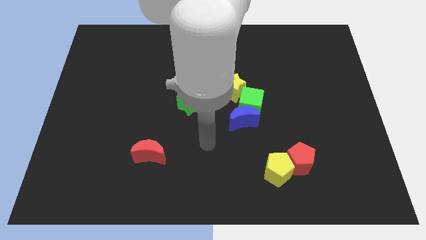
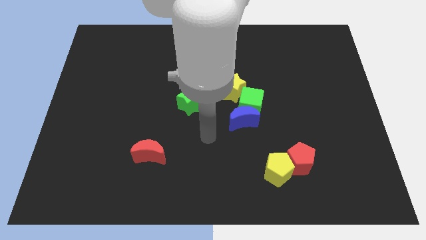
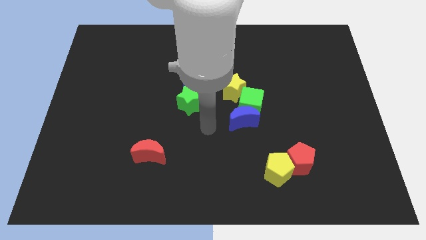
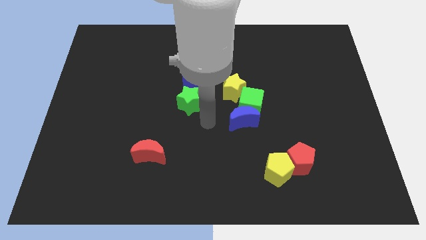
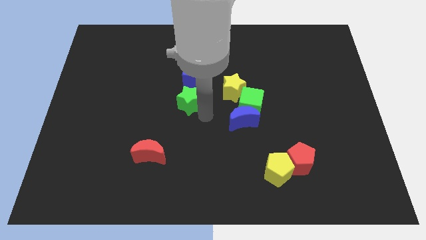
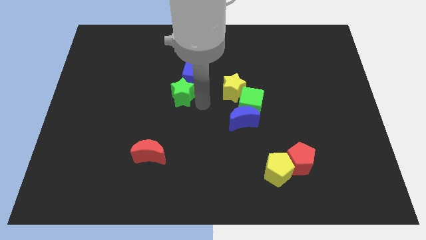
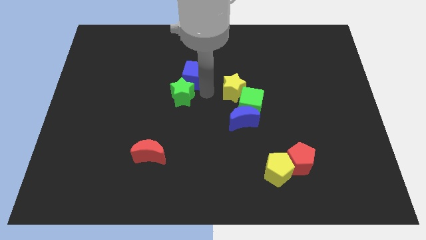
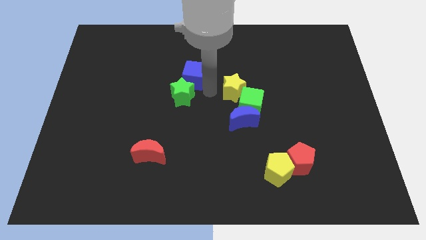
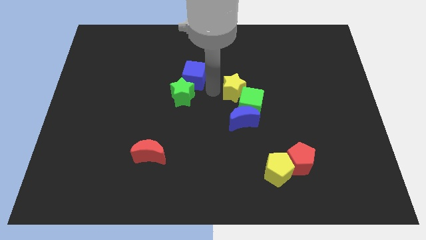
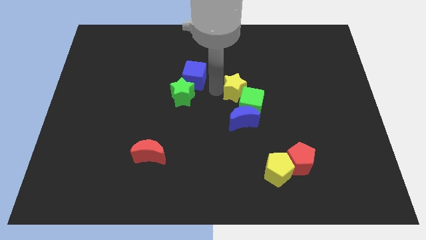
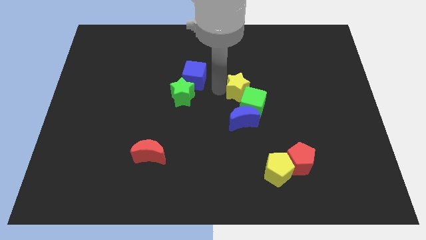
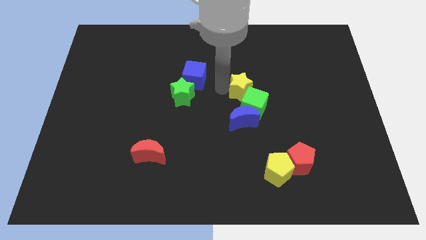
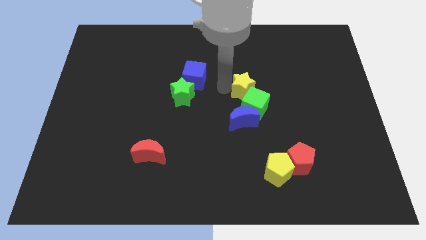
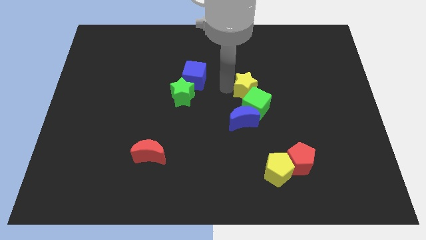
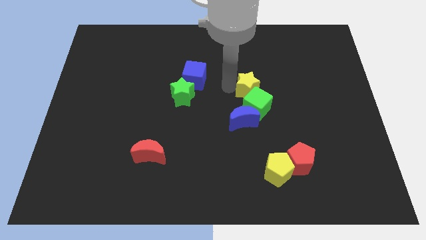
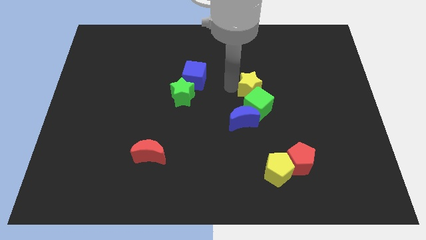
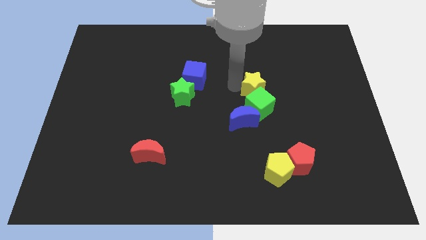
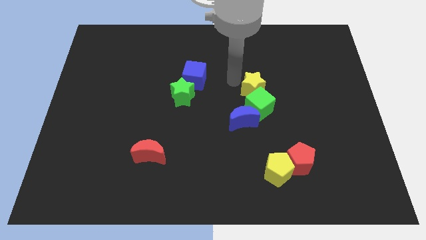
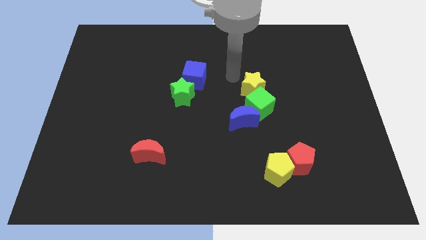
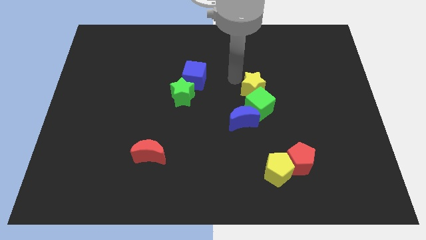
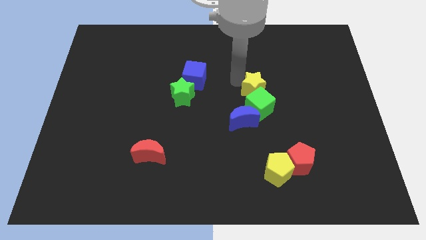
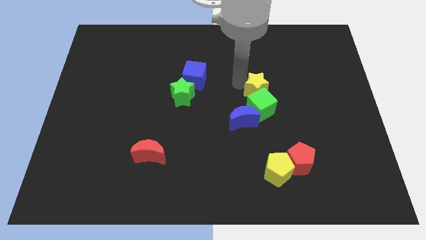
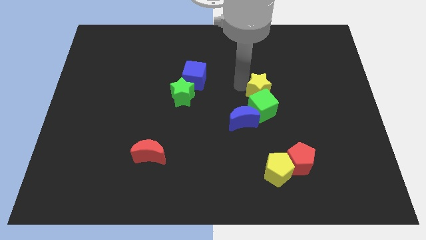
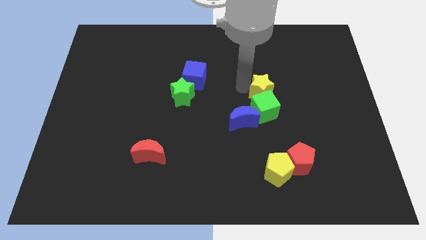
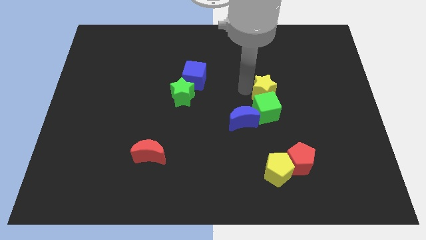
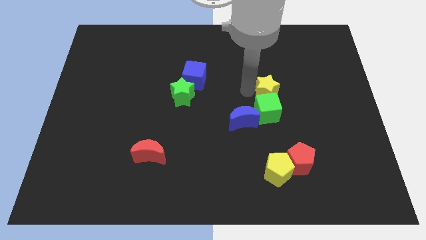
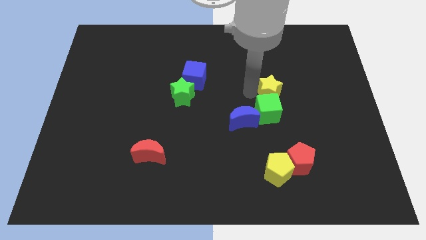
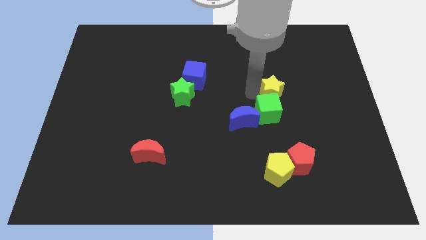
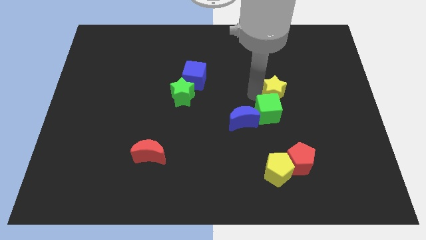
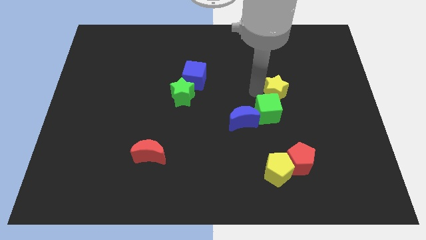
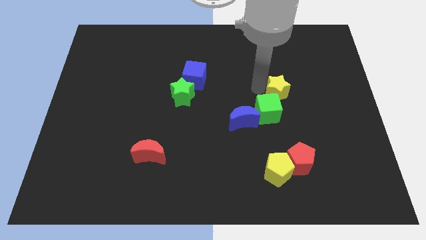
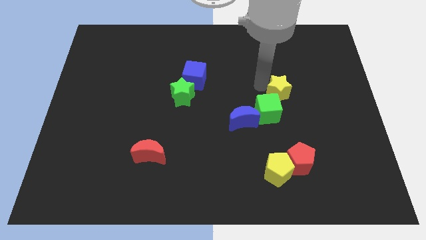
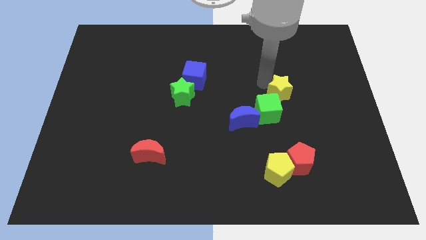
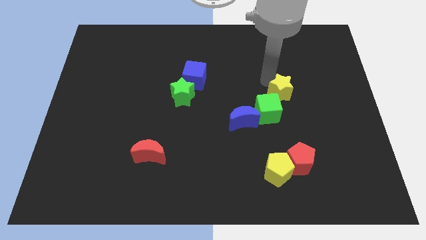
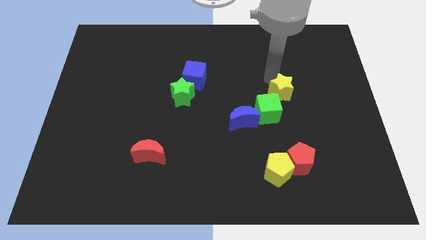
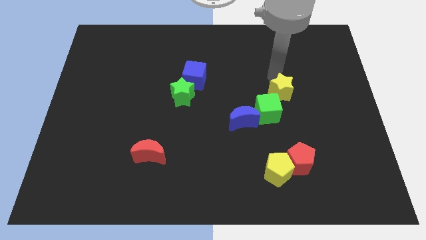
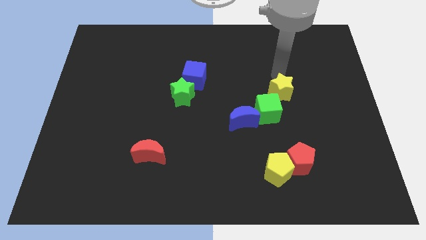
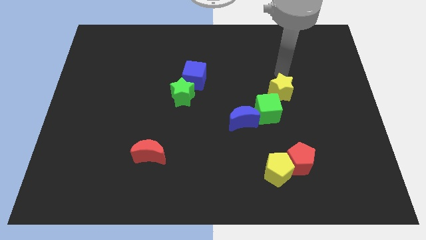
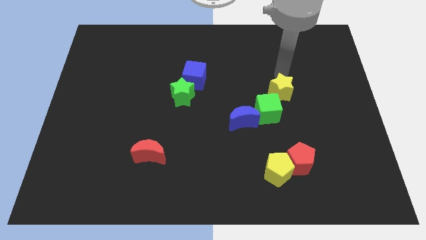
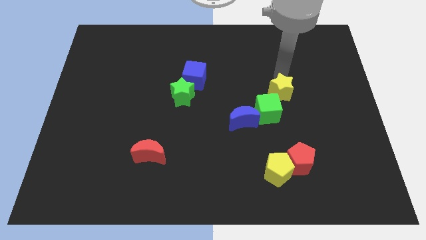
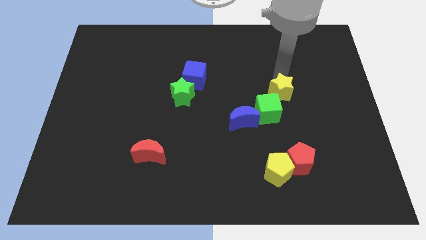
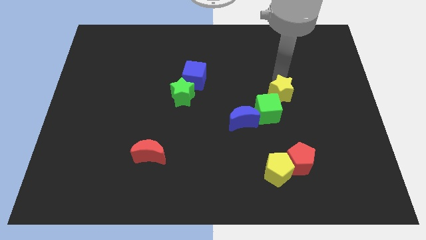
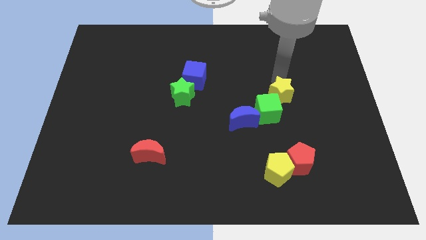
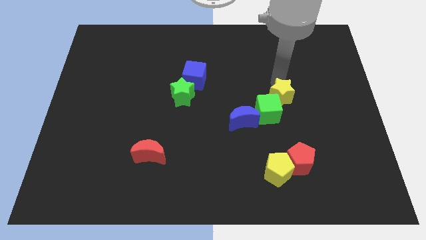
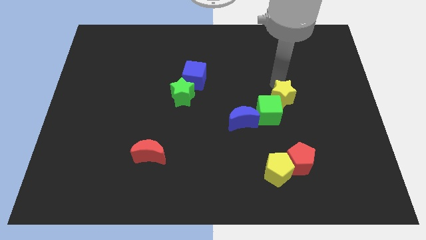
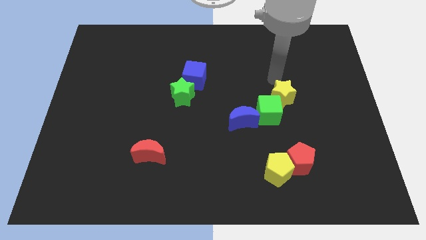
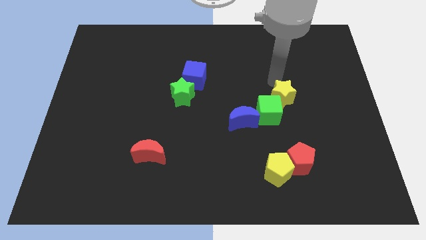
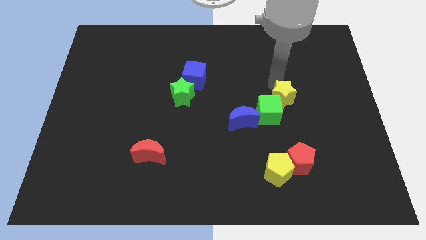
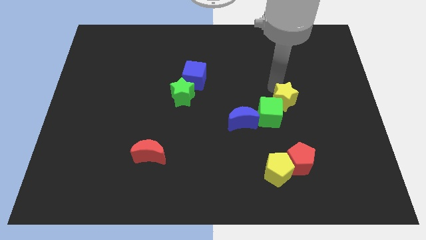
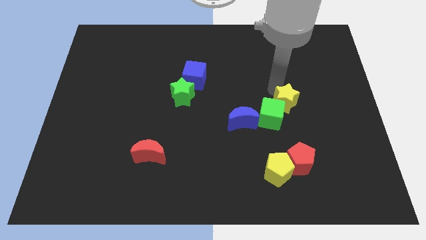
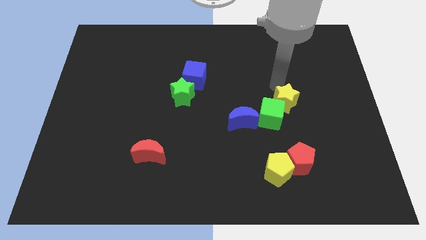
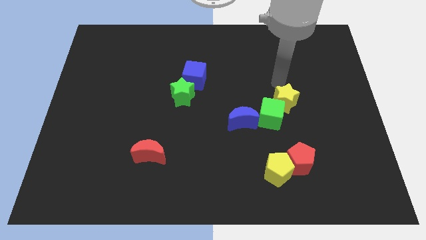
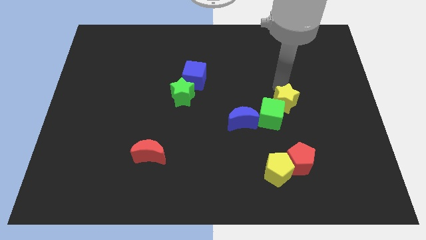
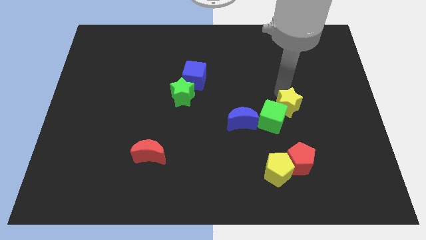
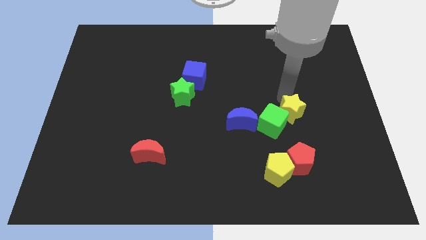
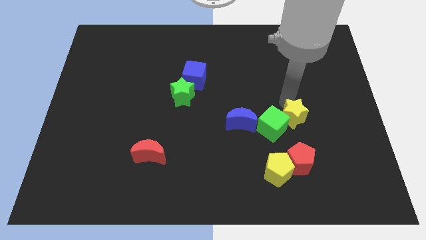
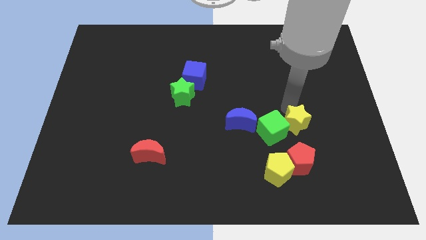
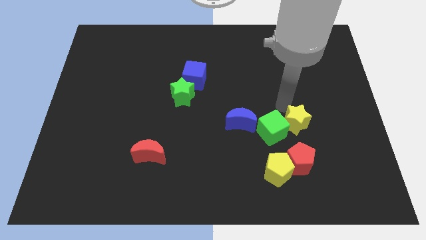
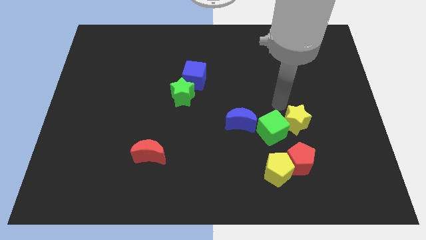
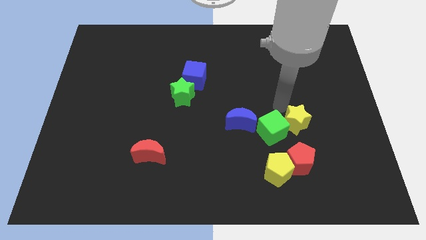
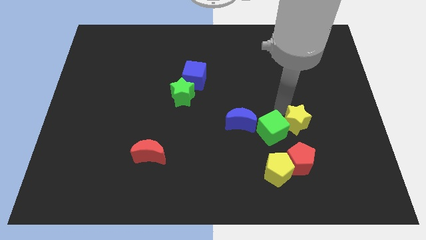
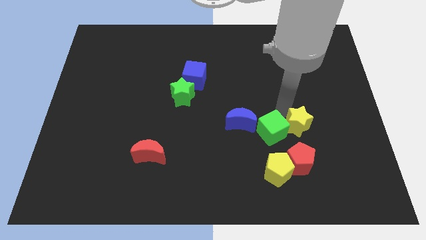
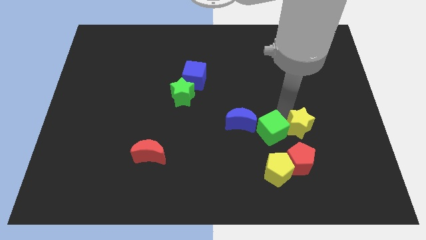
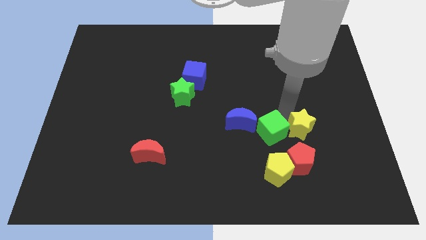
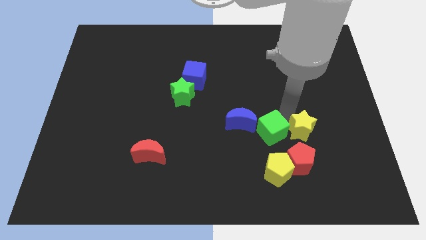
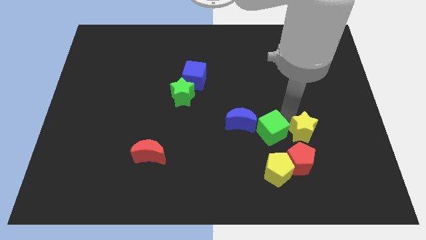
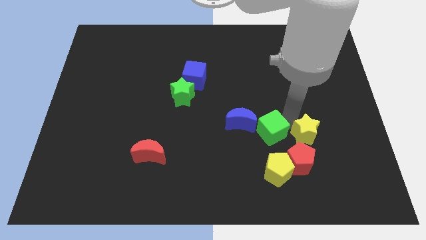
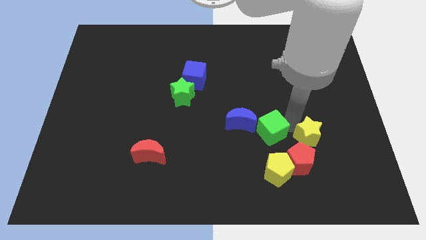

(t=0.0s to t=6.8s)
move the yellow star downwards and right diagonally

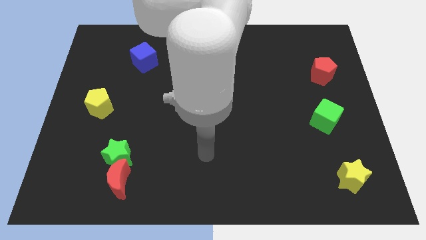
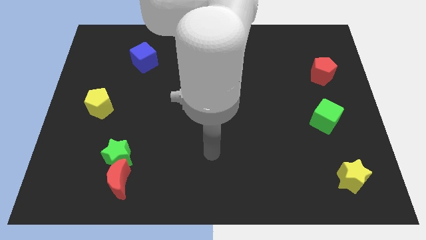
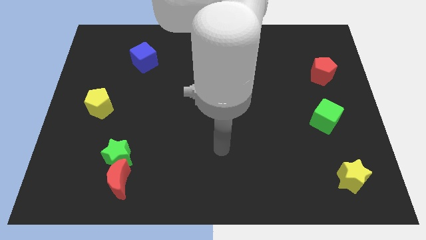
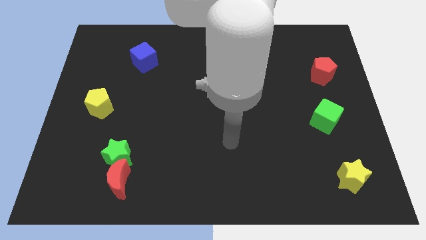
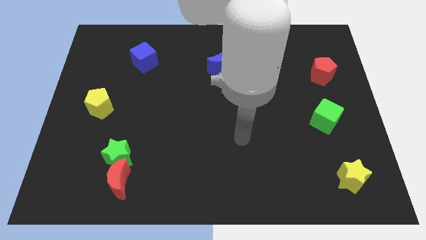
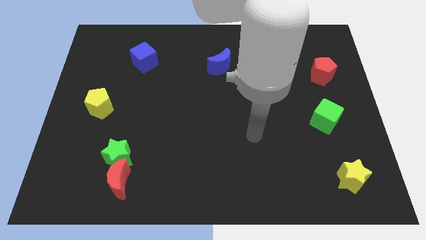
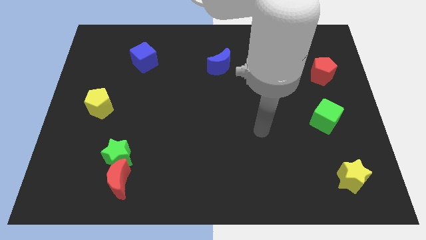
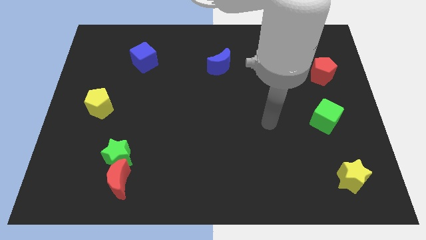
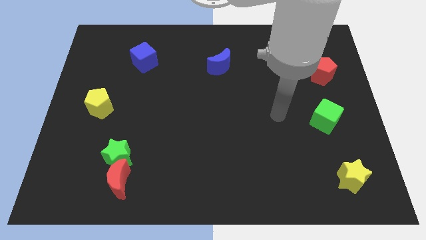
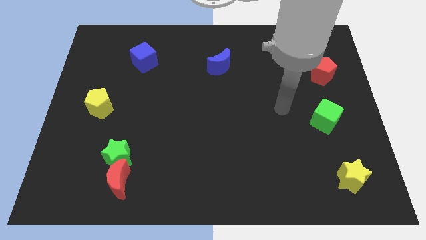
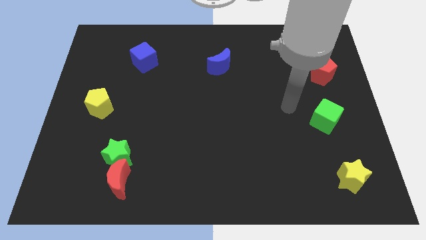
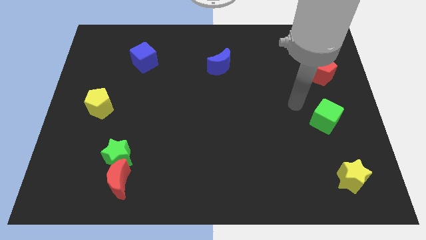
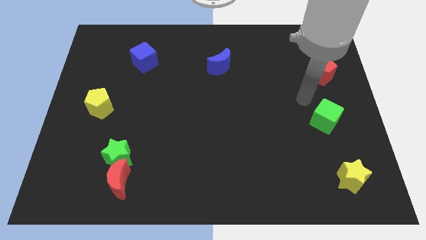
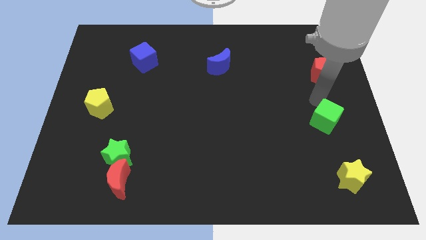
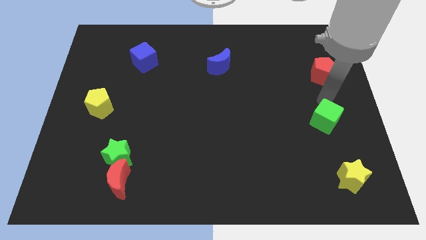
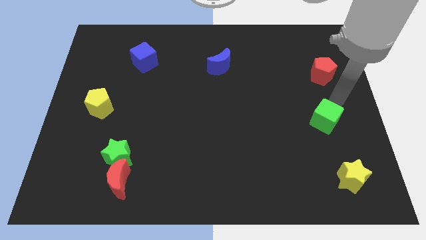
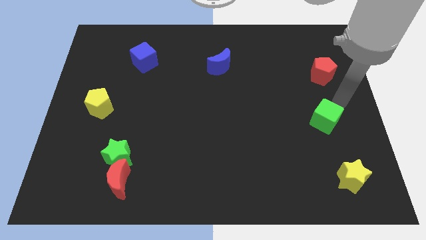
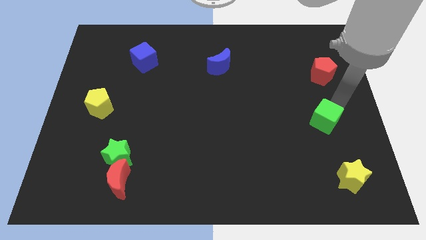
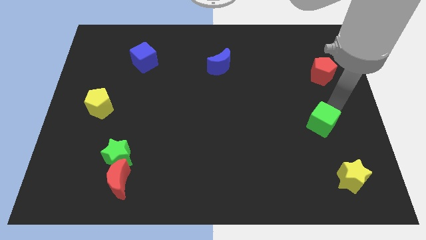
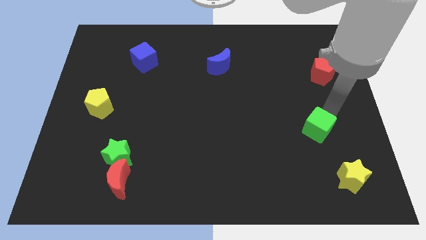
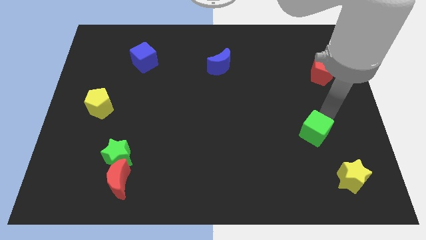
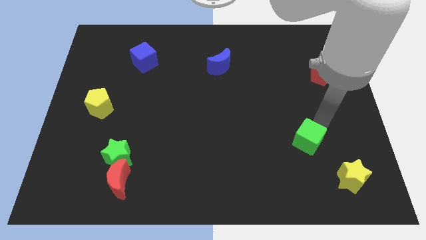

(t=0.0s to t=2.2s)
move the green cube down and left diagonally a little bit
